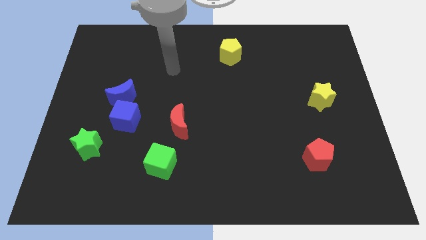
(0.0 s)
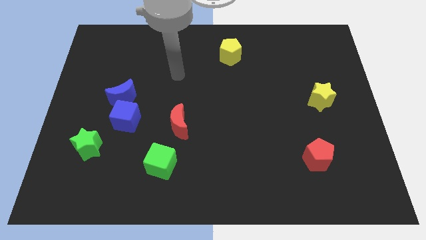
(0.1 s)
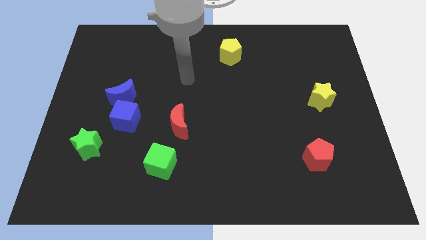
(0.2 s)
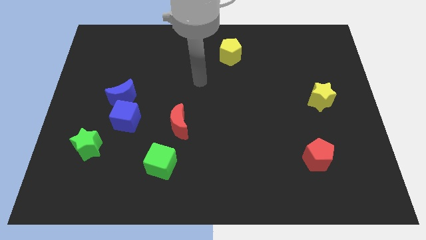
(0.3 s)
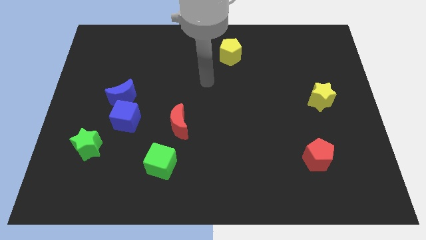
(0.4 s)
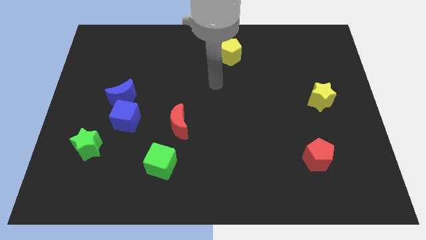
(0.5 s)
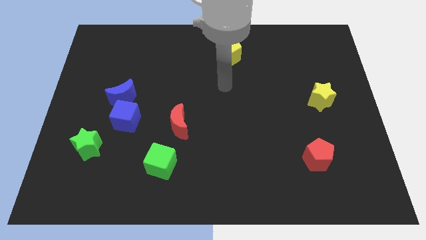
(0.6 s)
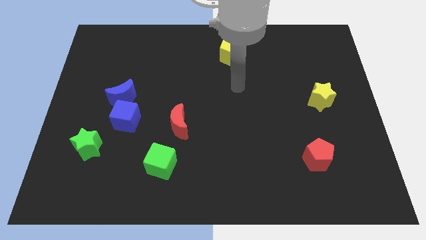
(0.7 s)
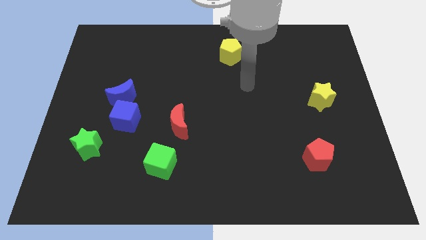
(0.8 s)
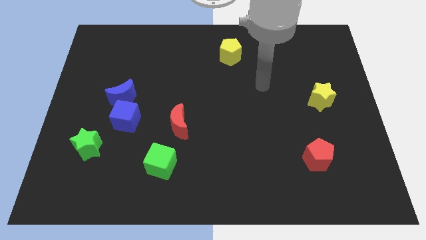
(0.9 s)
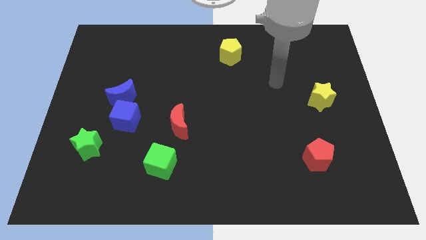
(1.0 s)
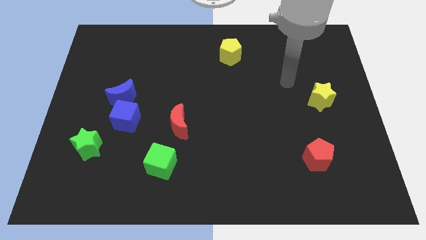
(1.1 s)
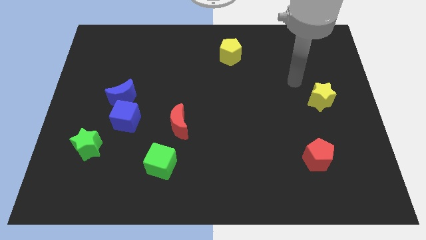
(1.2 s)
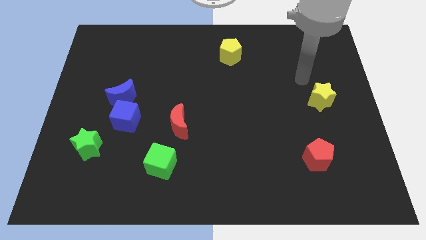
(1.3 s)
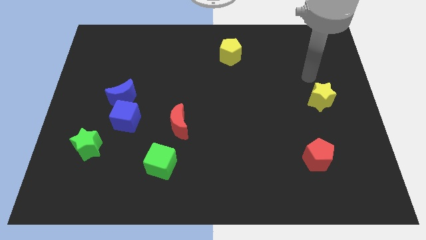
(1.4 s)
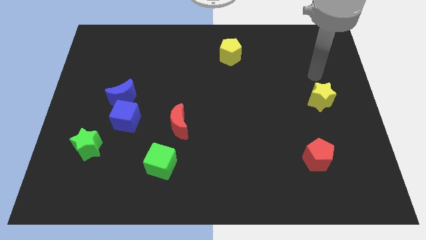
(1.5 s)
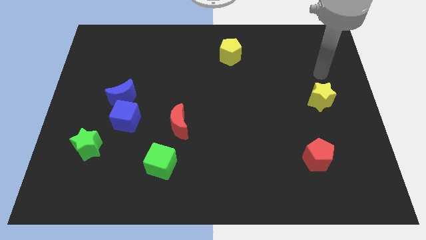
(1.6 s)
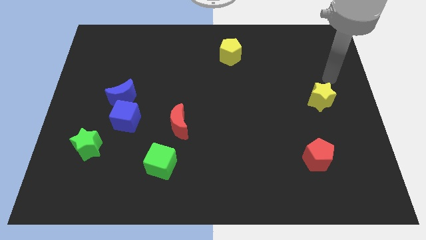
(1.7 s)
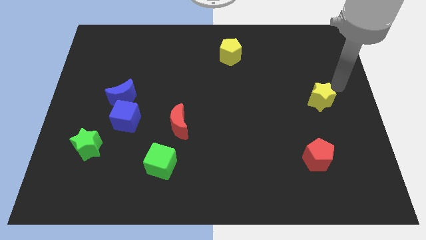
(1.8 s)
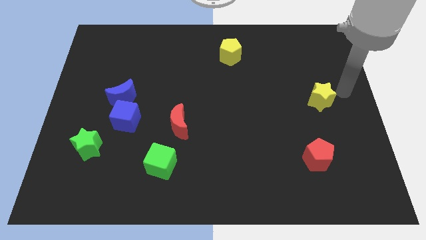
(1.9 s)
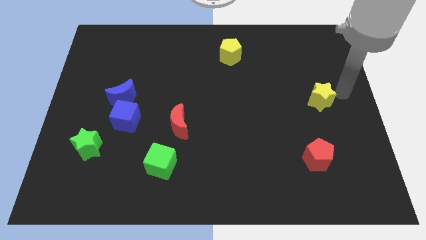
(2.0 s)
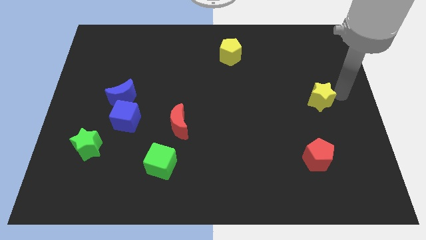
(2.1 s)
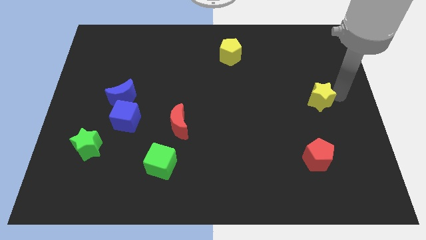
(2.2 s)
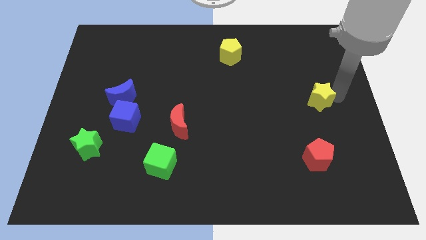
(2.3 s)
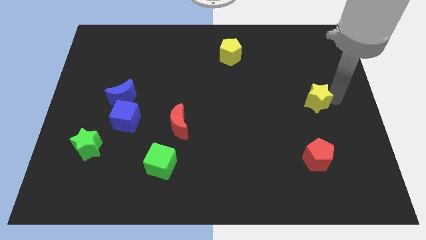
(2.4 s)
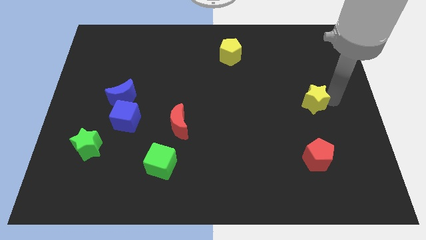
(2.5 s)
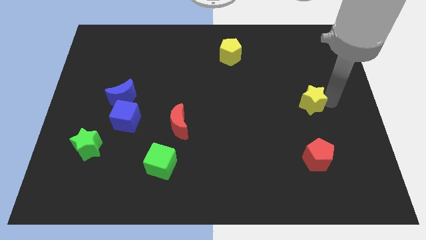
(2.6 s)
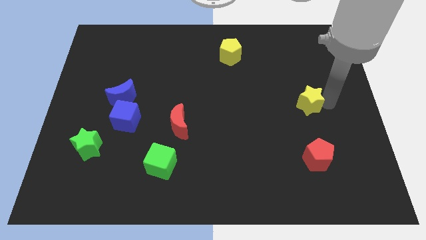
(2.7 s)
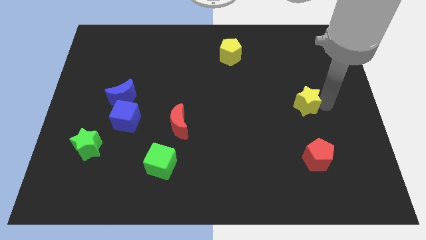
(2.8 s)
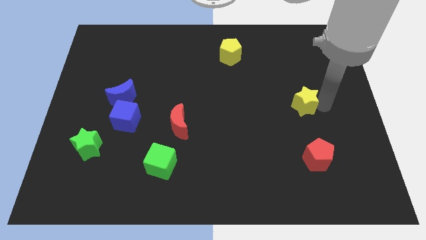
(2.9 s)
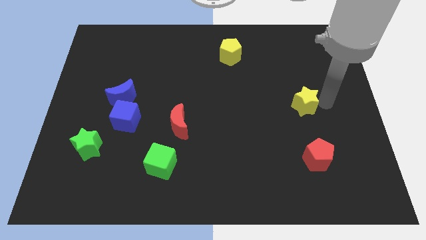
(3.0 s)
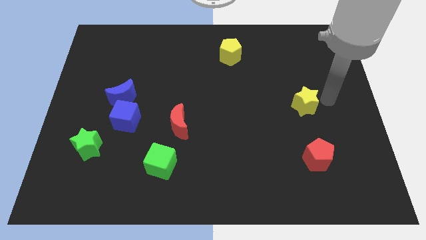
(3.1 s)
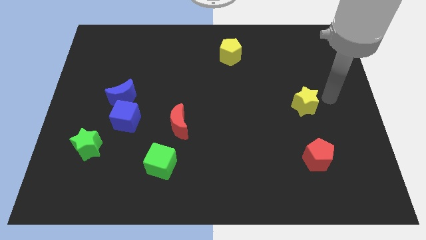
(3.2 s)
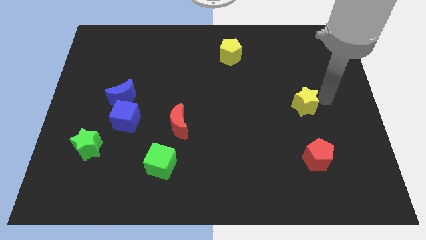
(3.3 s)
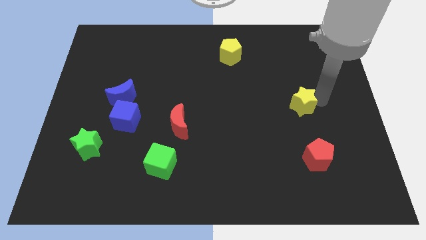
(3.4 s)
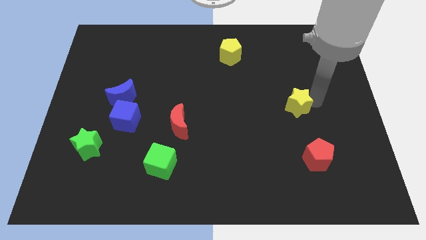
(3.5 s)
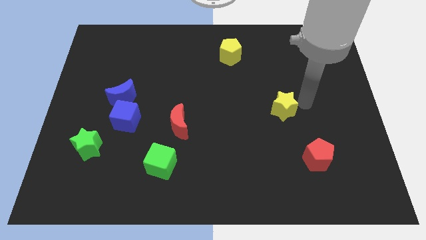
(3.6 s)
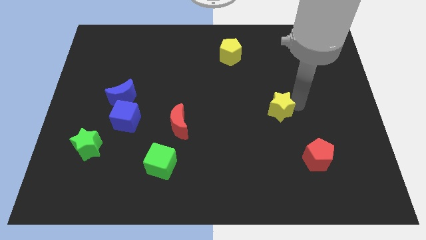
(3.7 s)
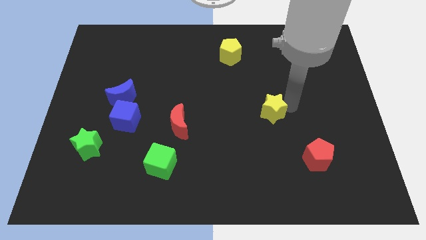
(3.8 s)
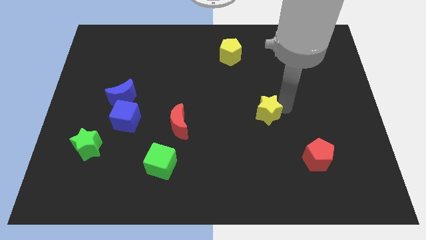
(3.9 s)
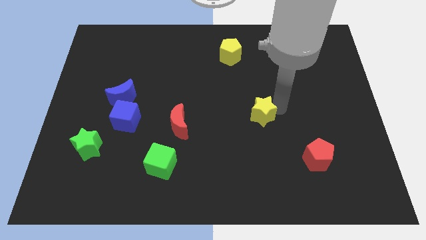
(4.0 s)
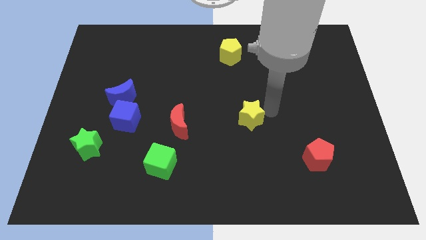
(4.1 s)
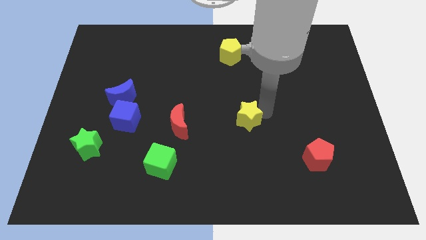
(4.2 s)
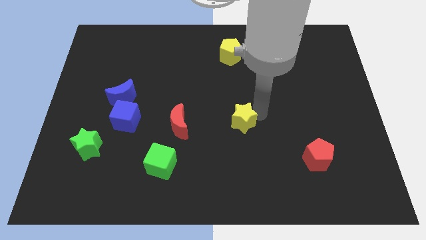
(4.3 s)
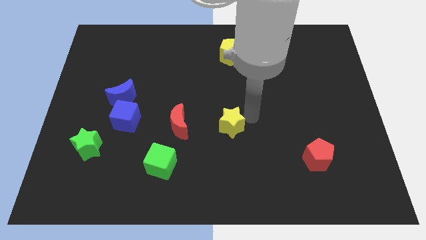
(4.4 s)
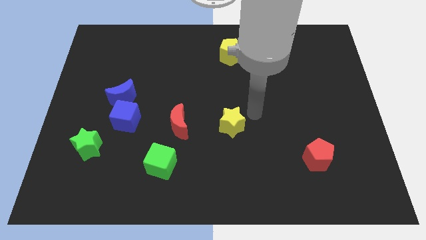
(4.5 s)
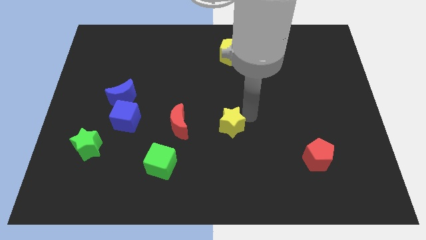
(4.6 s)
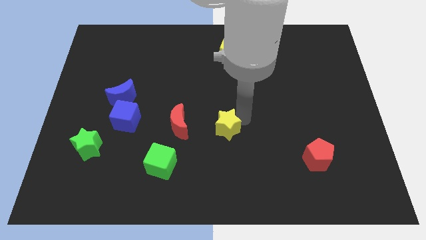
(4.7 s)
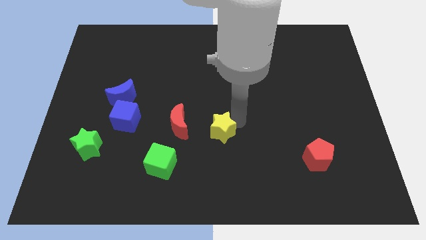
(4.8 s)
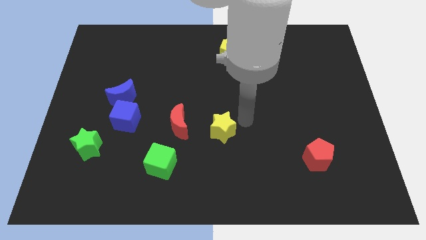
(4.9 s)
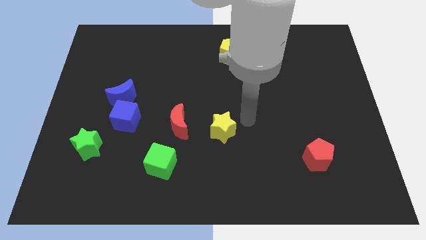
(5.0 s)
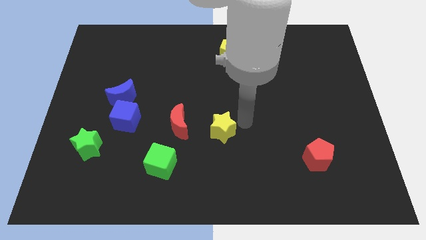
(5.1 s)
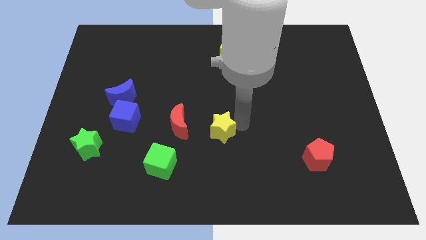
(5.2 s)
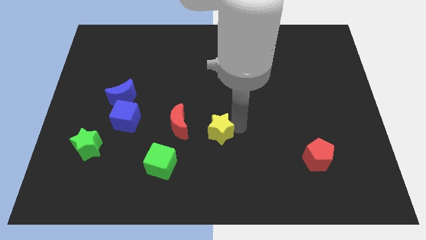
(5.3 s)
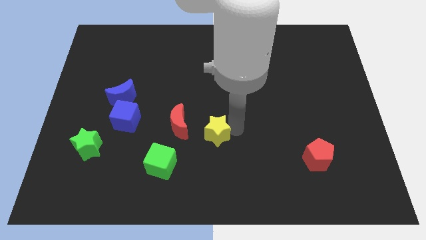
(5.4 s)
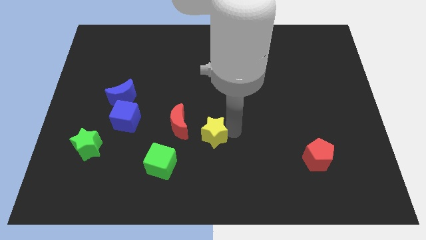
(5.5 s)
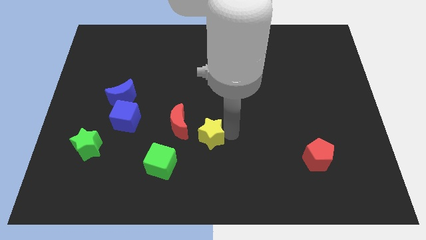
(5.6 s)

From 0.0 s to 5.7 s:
move the yellow star to the top right side of the green cube

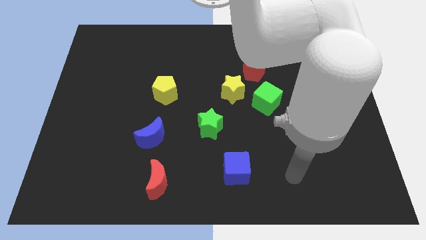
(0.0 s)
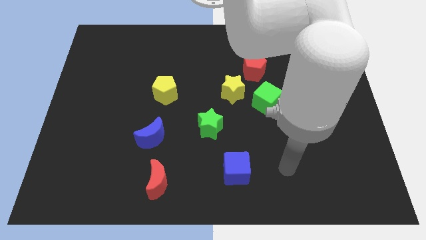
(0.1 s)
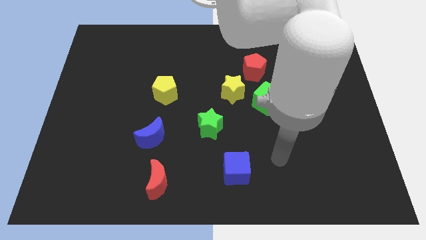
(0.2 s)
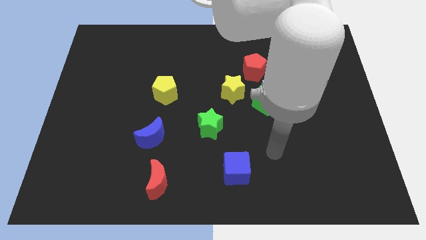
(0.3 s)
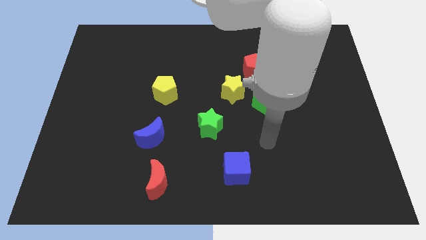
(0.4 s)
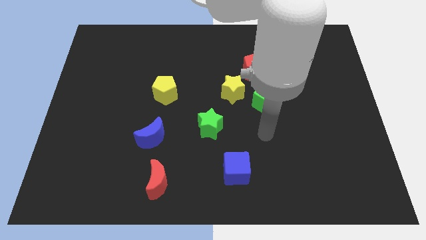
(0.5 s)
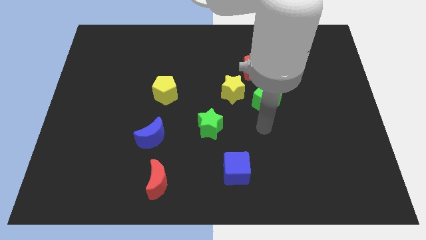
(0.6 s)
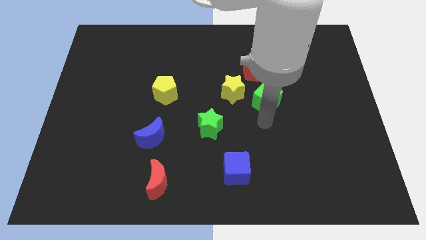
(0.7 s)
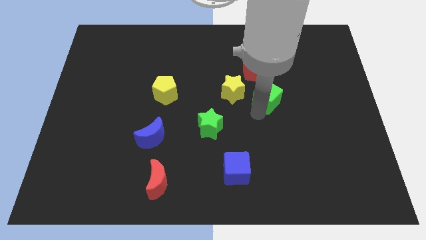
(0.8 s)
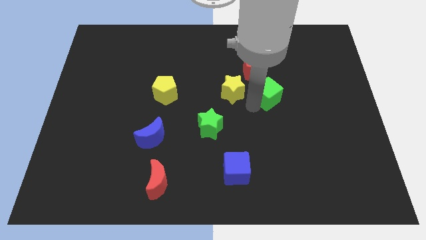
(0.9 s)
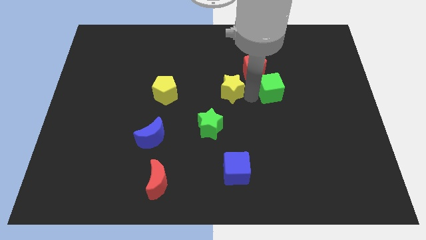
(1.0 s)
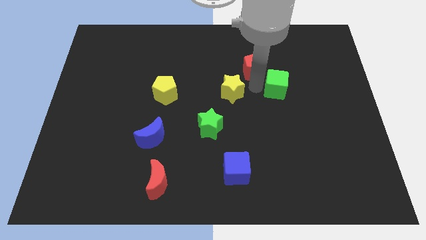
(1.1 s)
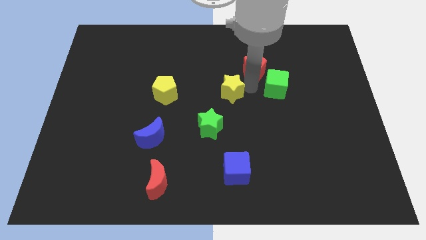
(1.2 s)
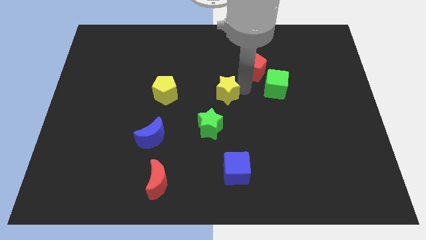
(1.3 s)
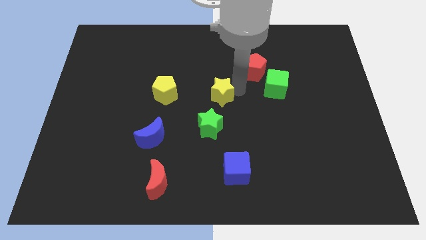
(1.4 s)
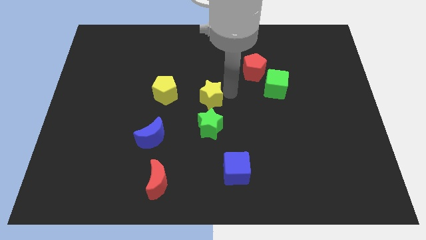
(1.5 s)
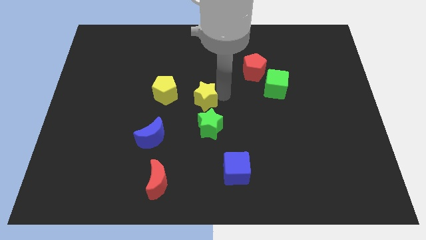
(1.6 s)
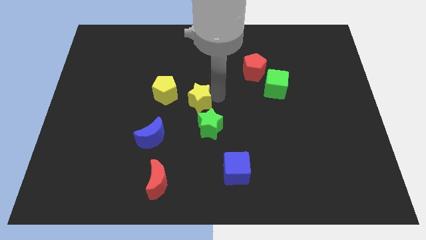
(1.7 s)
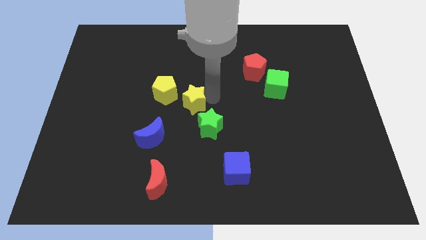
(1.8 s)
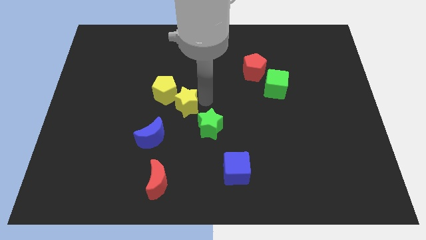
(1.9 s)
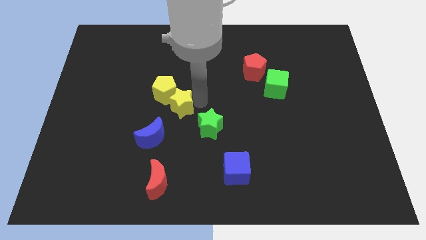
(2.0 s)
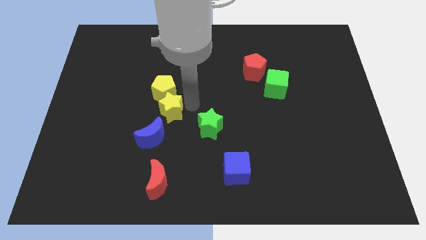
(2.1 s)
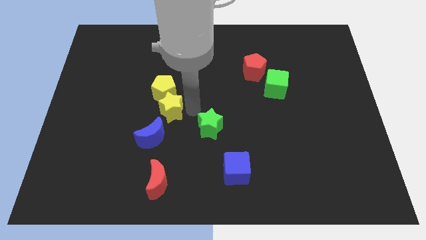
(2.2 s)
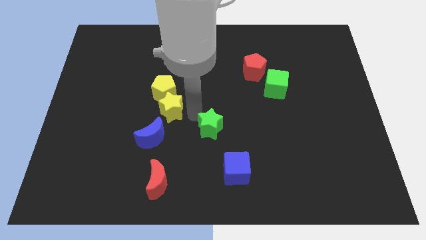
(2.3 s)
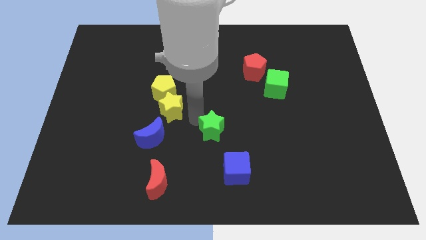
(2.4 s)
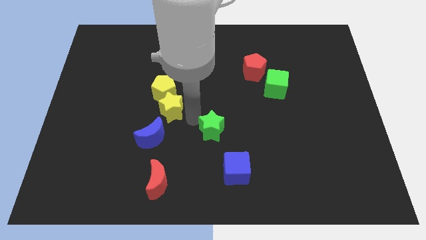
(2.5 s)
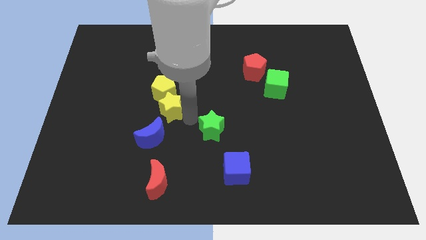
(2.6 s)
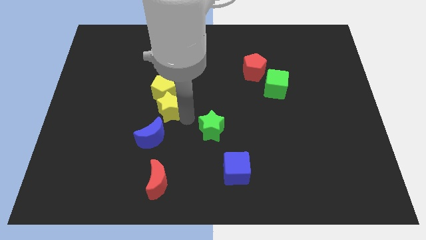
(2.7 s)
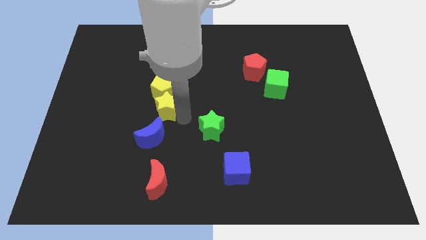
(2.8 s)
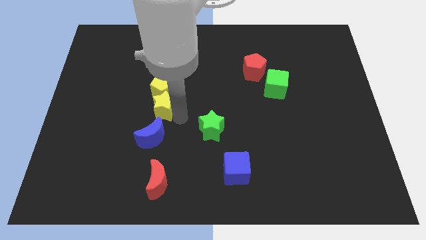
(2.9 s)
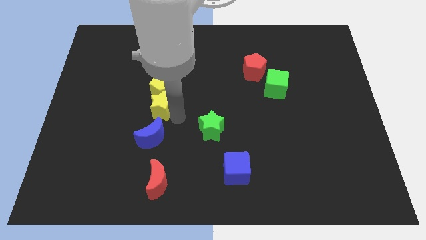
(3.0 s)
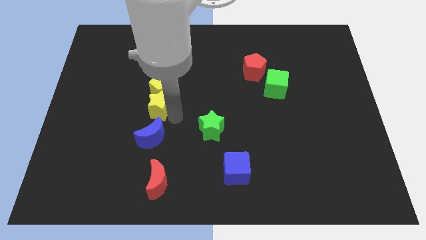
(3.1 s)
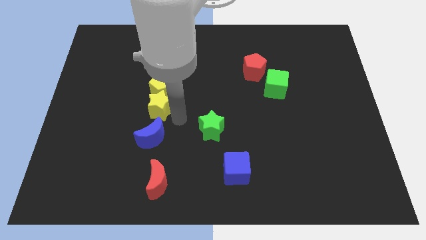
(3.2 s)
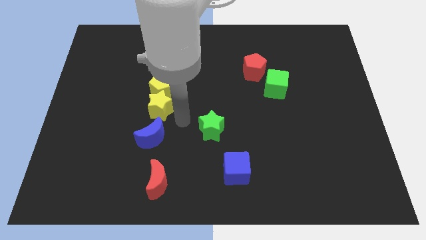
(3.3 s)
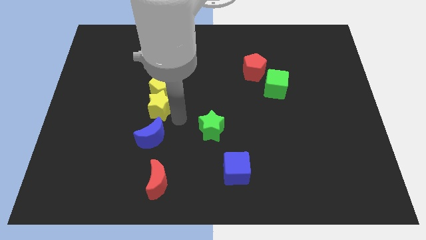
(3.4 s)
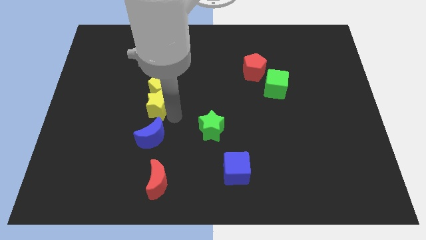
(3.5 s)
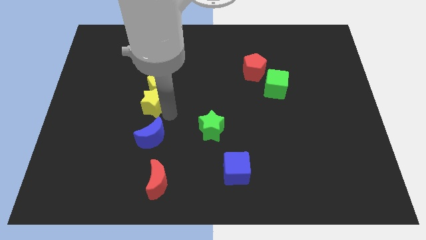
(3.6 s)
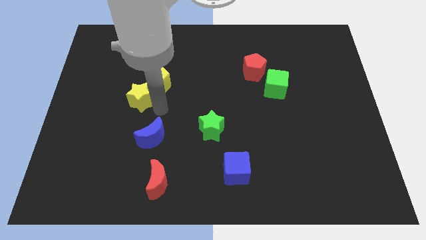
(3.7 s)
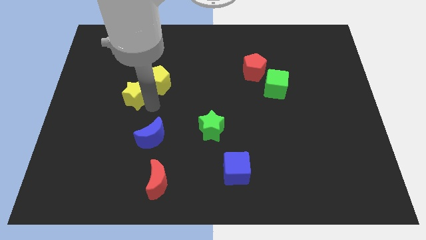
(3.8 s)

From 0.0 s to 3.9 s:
push the yellow star to the left side of the yellow pentagon
